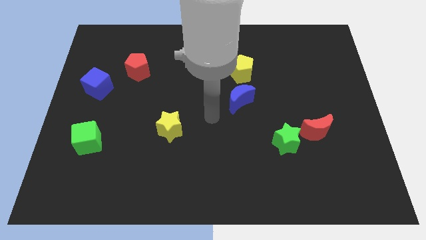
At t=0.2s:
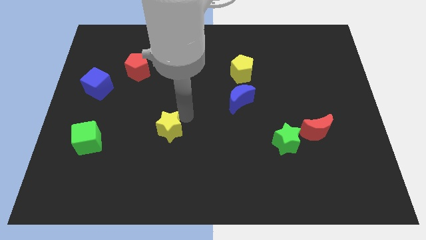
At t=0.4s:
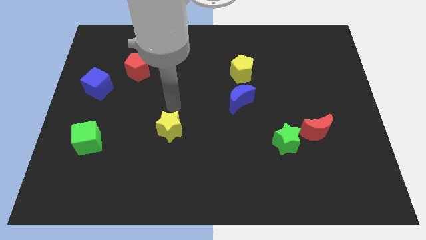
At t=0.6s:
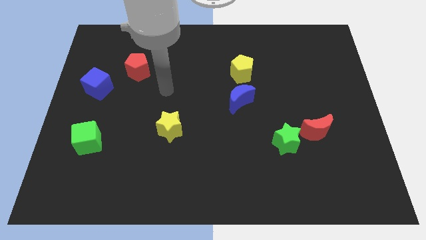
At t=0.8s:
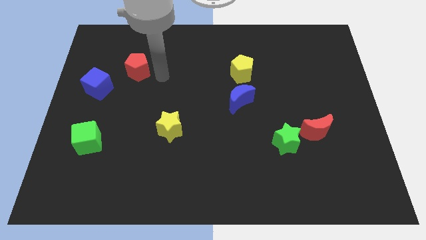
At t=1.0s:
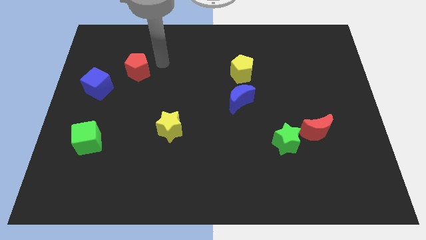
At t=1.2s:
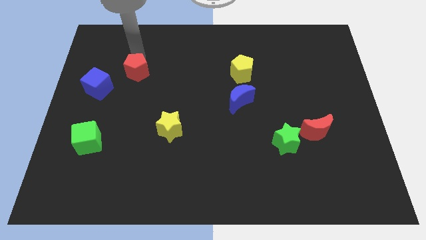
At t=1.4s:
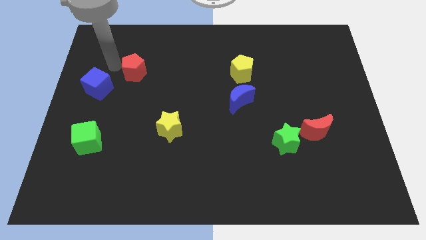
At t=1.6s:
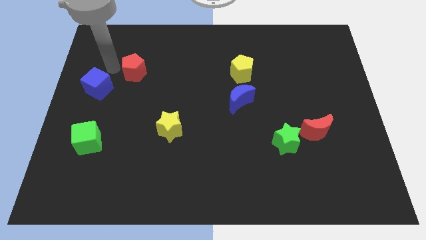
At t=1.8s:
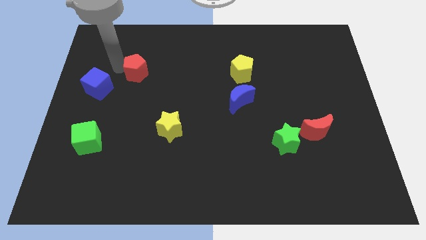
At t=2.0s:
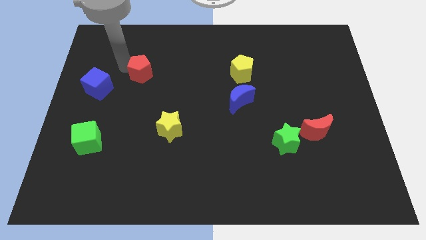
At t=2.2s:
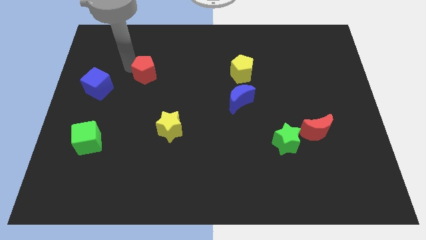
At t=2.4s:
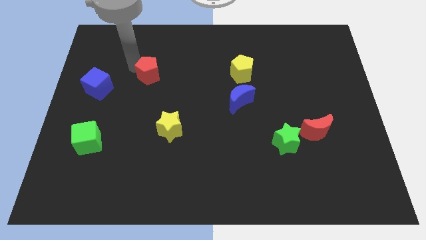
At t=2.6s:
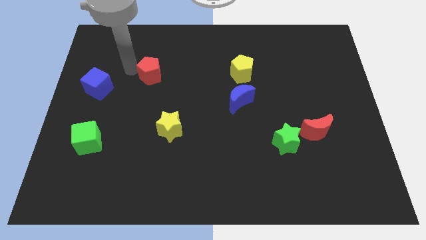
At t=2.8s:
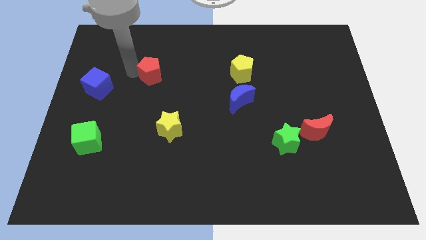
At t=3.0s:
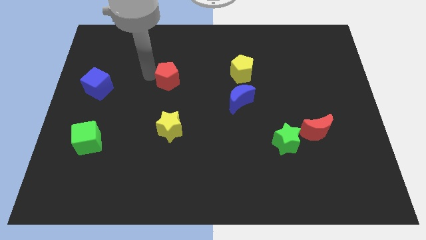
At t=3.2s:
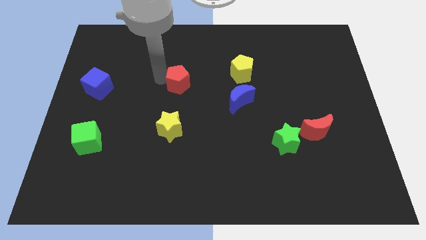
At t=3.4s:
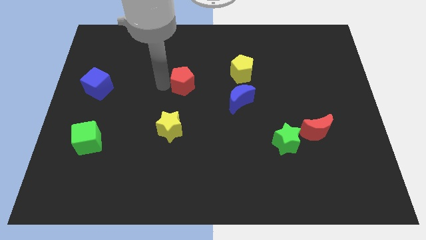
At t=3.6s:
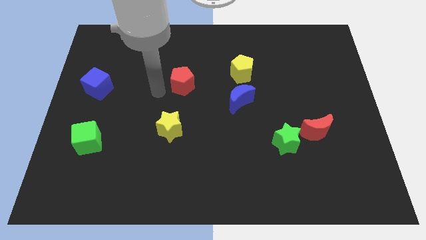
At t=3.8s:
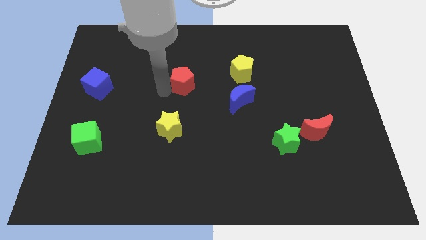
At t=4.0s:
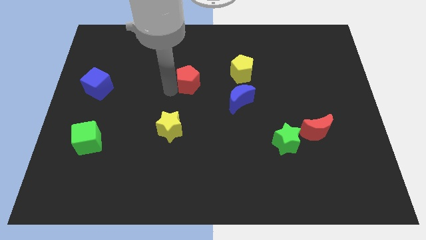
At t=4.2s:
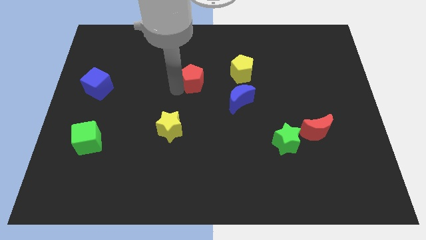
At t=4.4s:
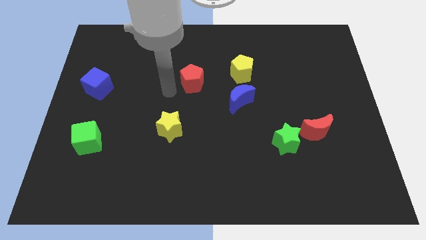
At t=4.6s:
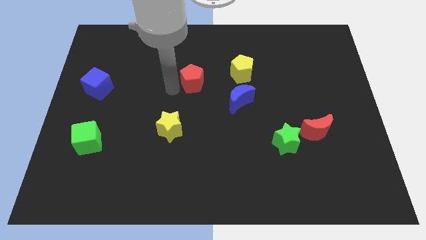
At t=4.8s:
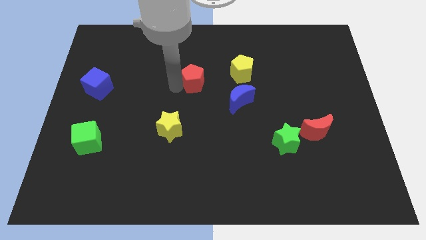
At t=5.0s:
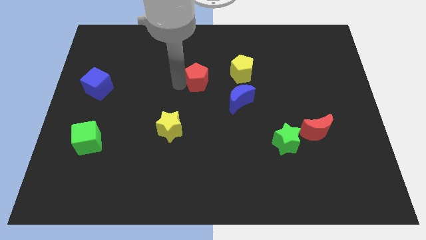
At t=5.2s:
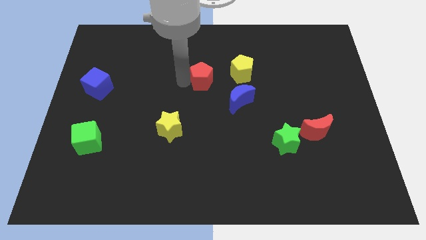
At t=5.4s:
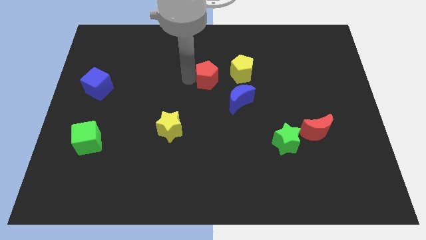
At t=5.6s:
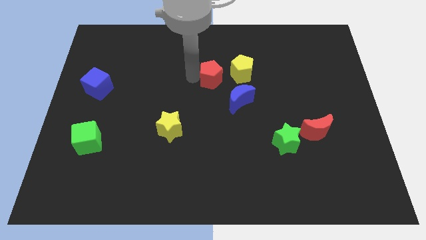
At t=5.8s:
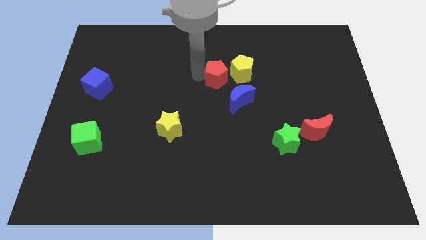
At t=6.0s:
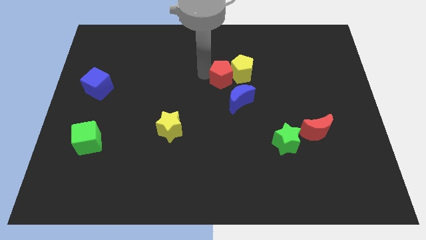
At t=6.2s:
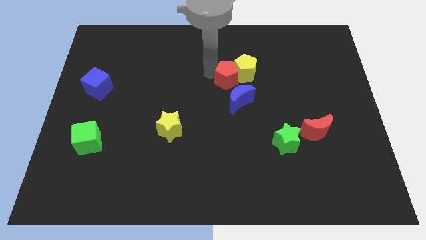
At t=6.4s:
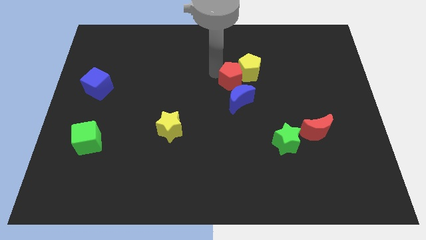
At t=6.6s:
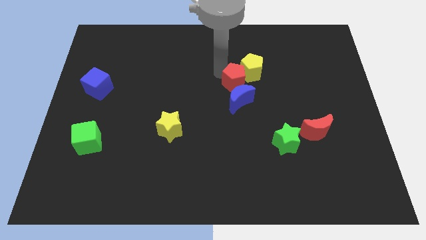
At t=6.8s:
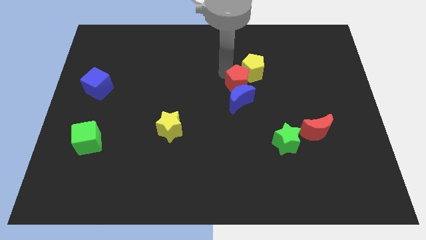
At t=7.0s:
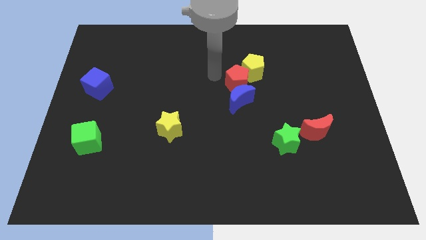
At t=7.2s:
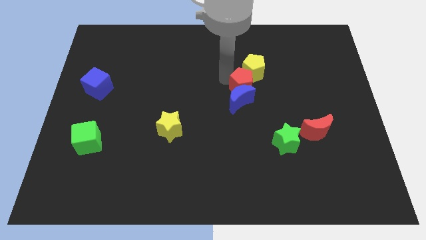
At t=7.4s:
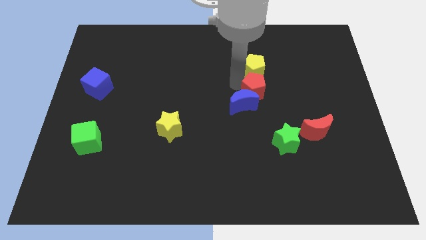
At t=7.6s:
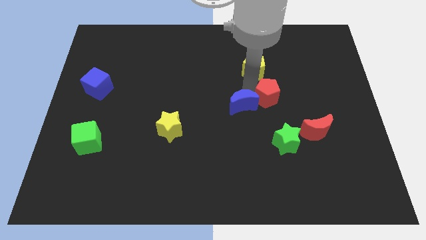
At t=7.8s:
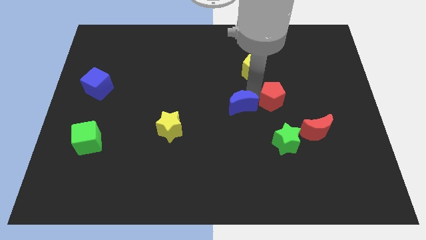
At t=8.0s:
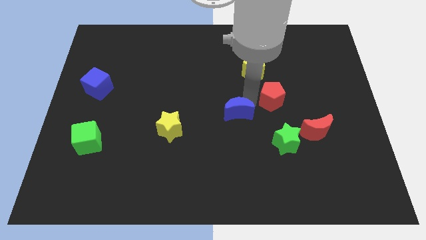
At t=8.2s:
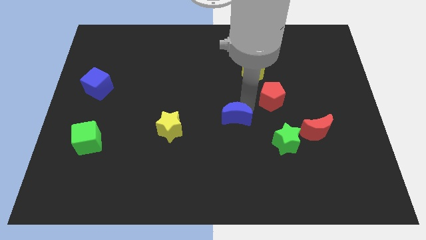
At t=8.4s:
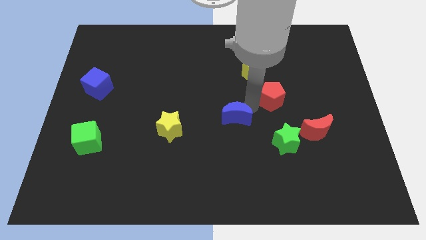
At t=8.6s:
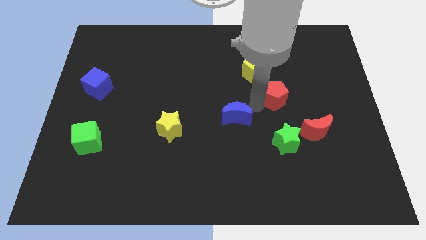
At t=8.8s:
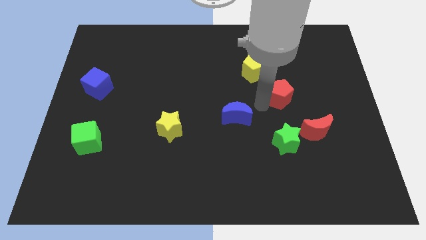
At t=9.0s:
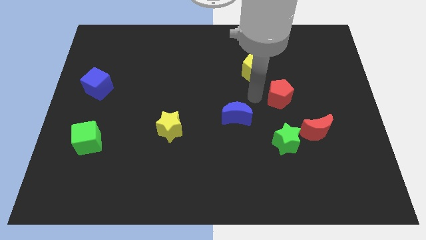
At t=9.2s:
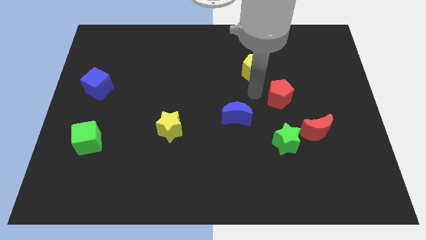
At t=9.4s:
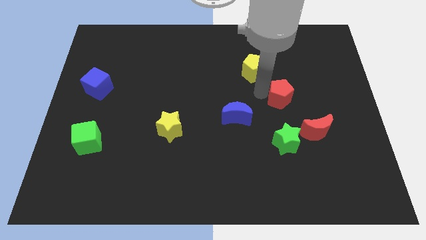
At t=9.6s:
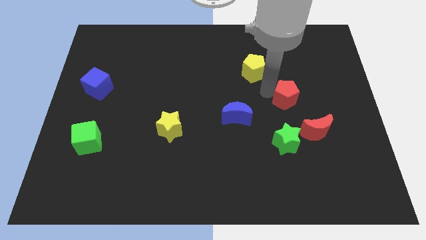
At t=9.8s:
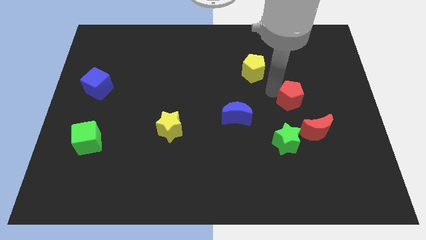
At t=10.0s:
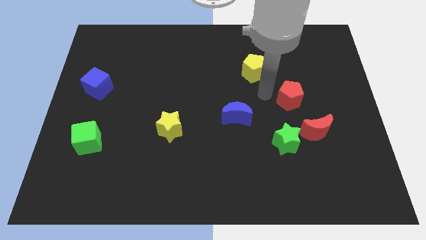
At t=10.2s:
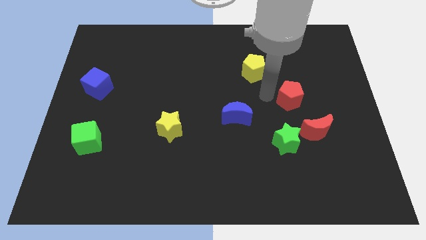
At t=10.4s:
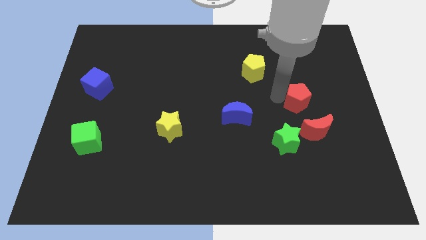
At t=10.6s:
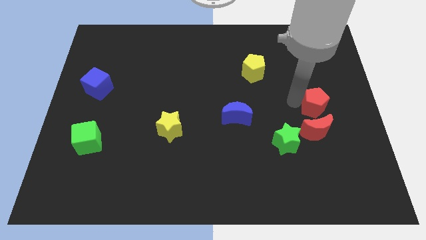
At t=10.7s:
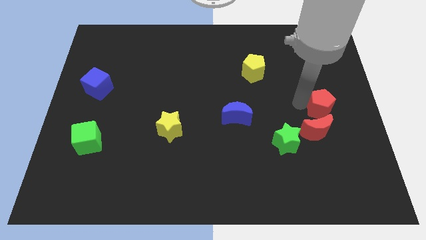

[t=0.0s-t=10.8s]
push the red pentagon to the right side
